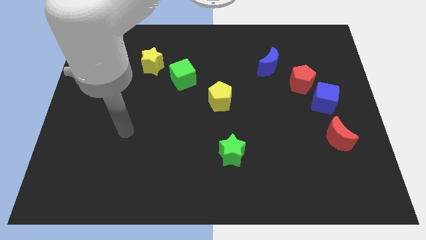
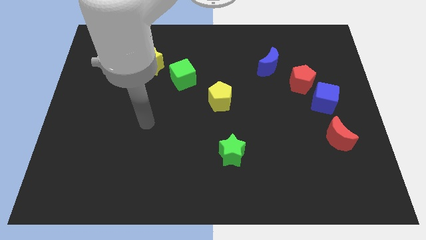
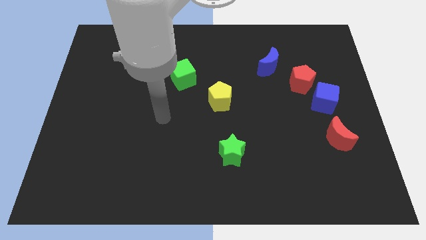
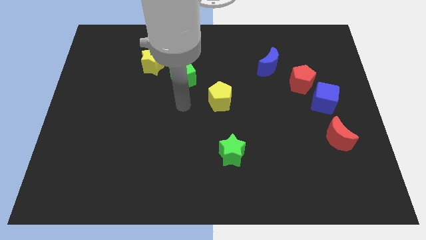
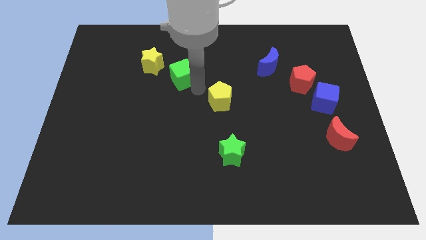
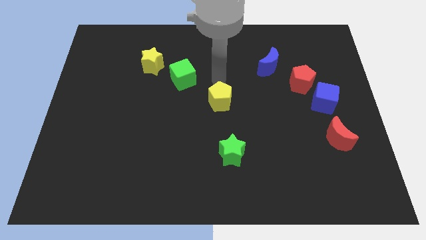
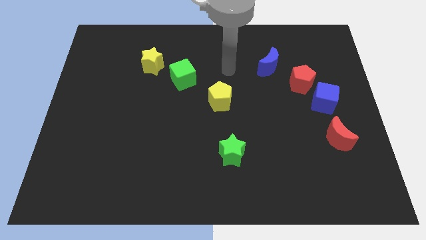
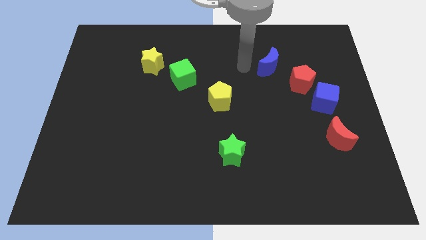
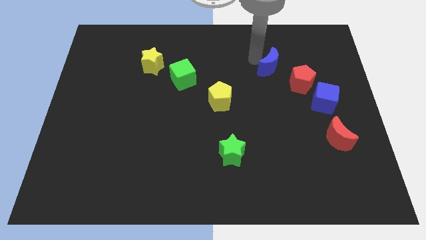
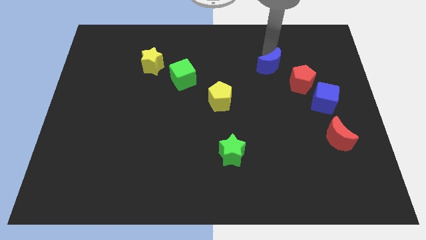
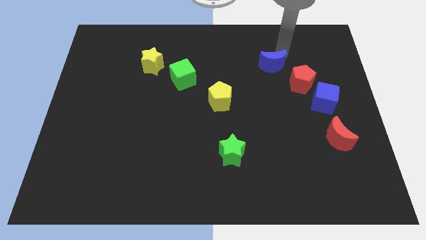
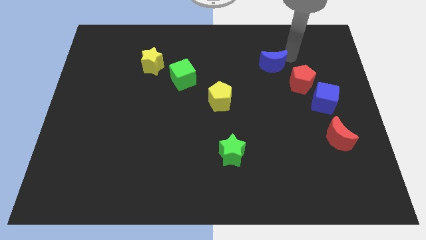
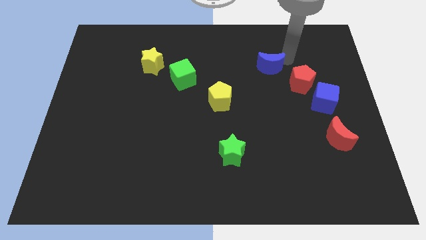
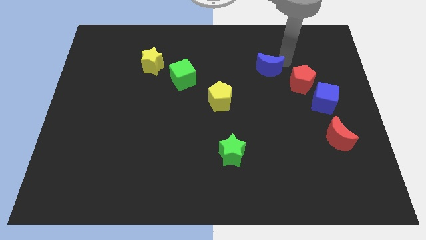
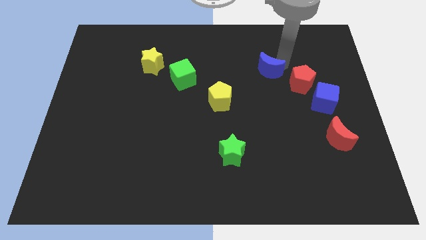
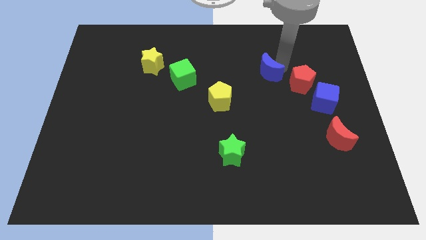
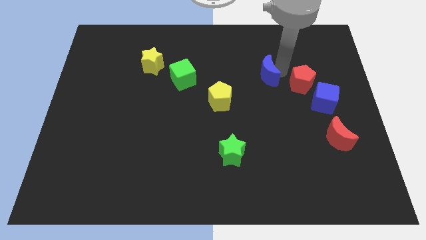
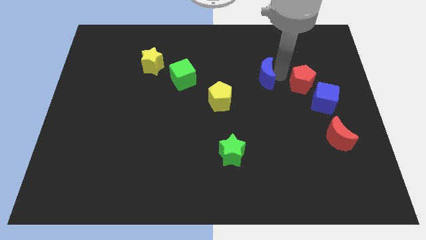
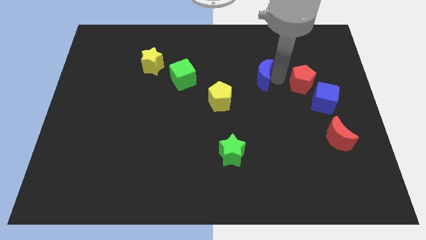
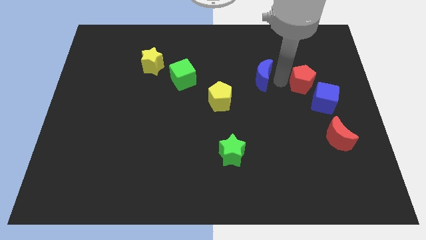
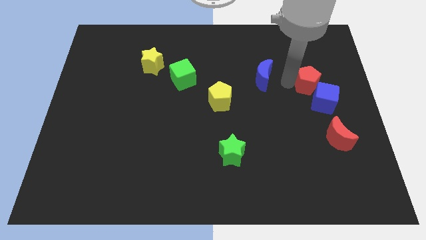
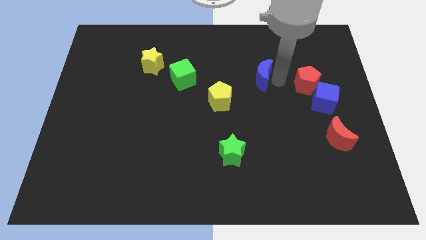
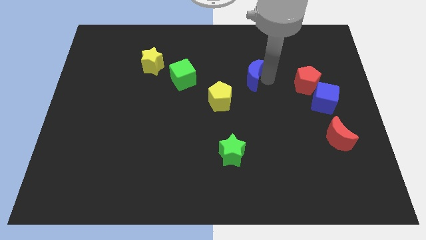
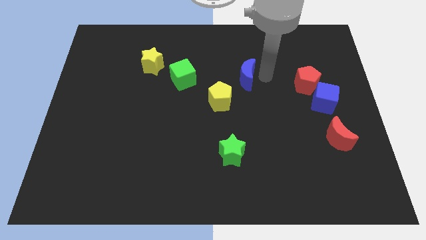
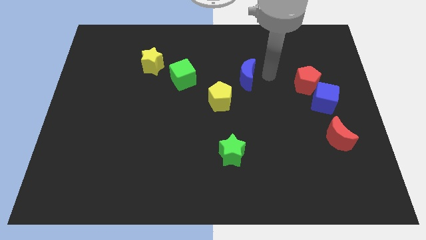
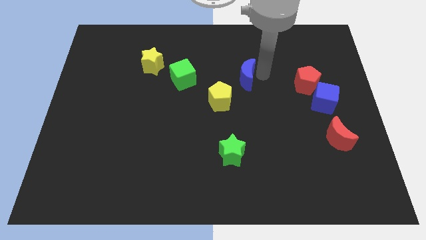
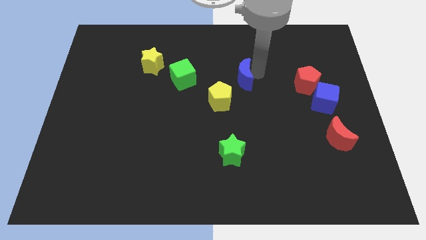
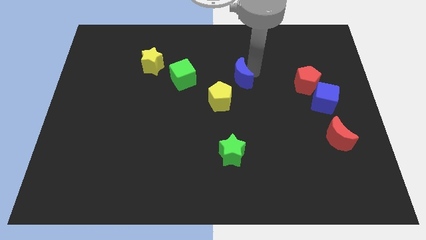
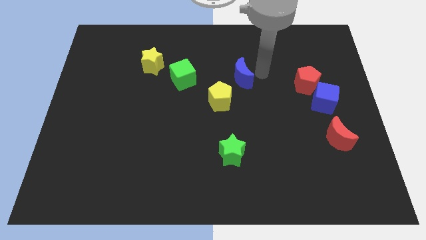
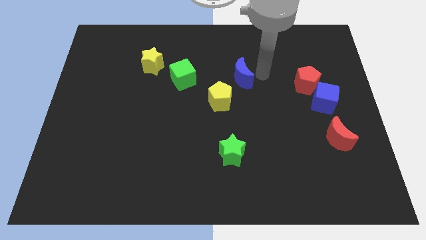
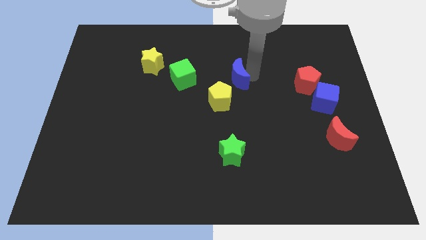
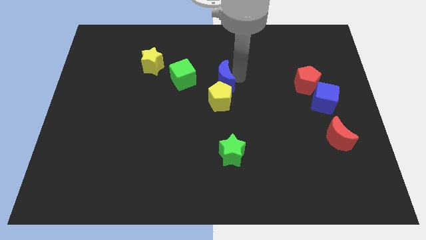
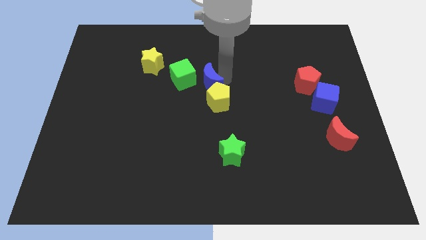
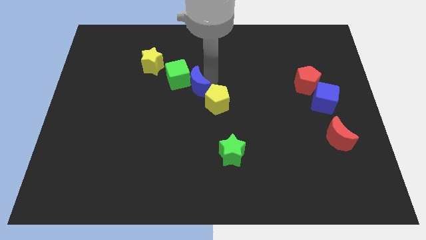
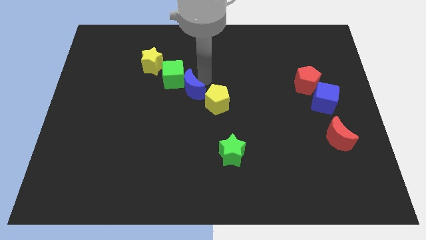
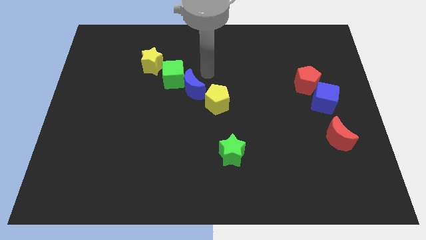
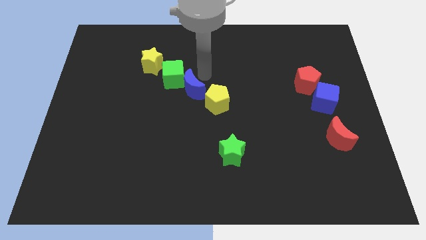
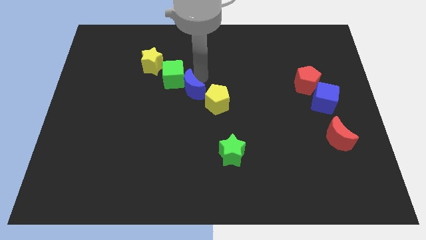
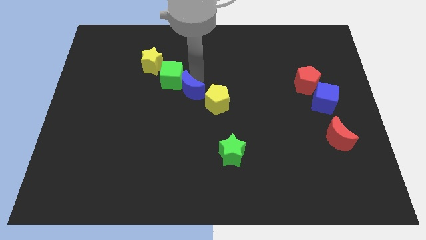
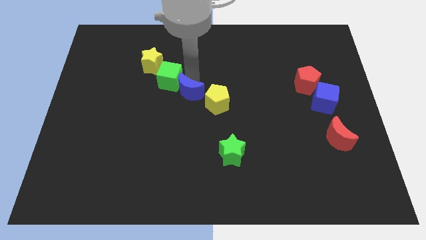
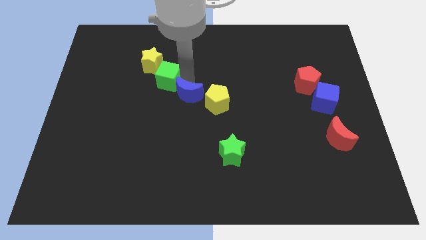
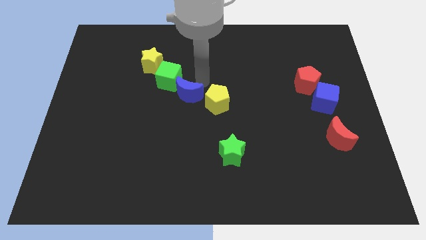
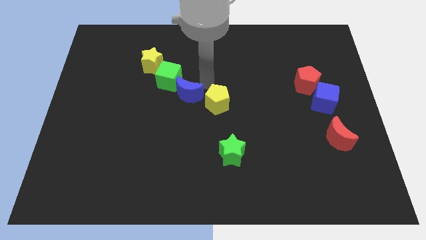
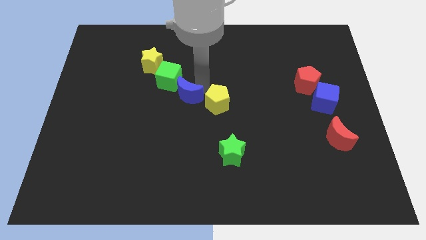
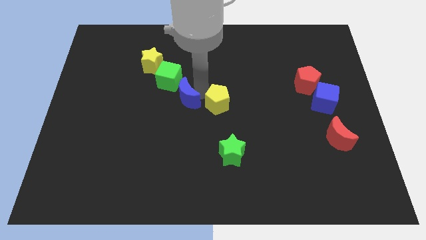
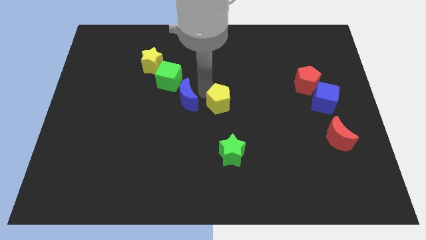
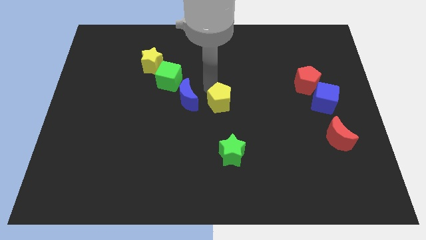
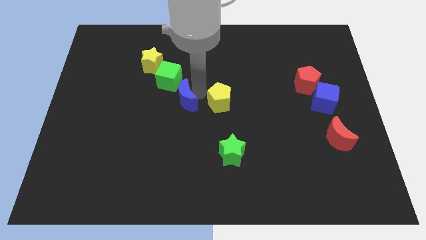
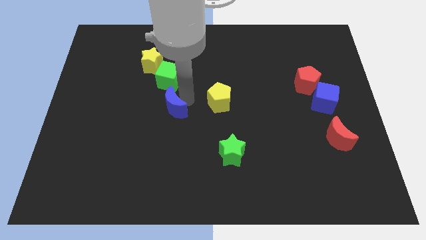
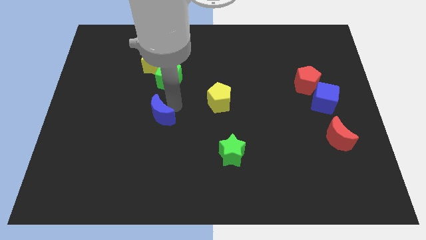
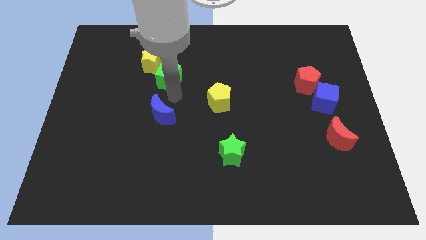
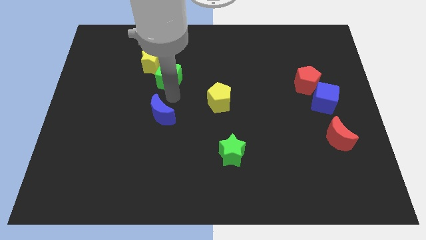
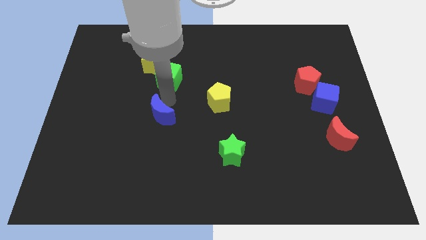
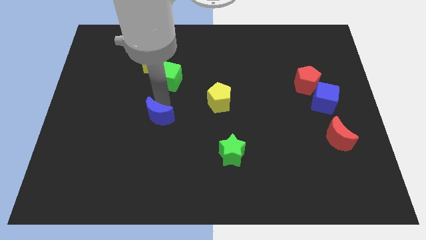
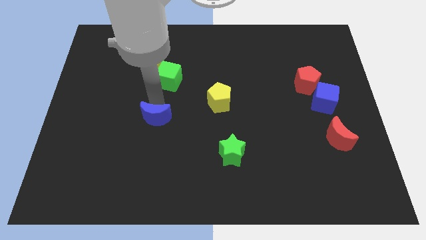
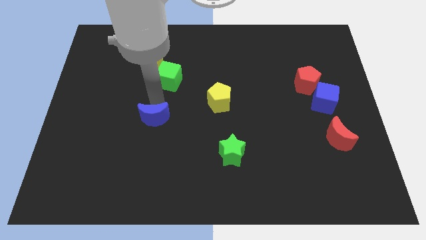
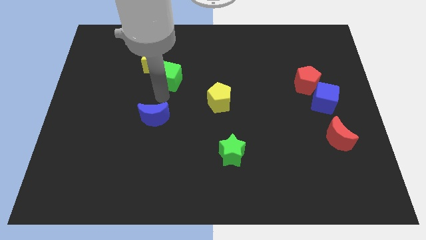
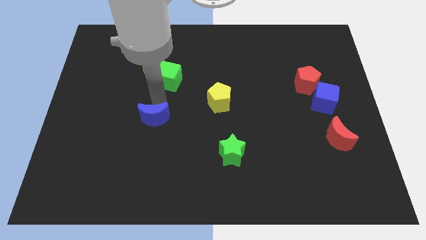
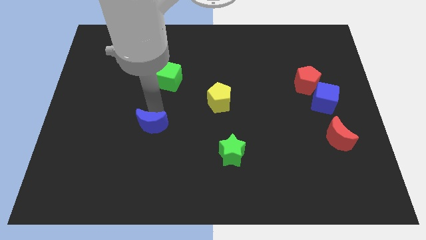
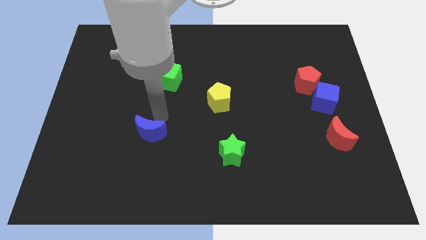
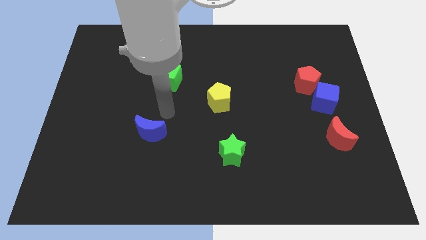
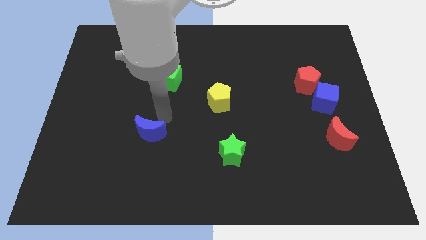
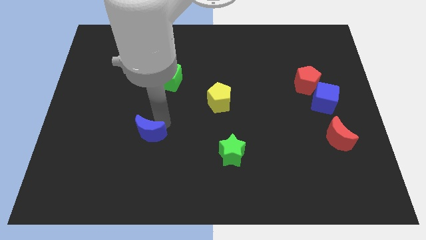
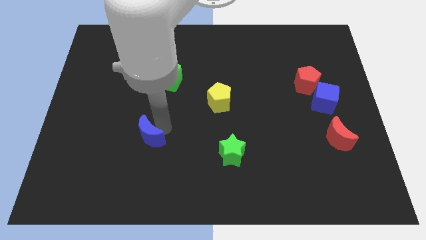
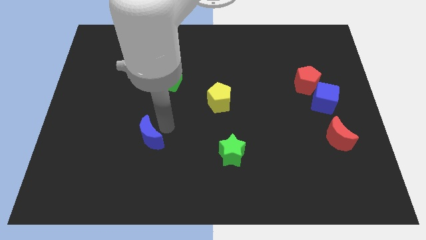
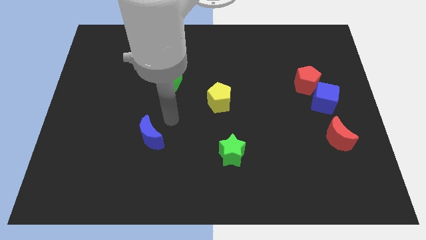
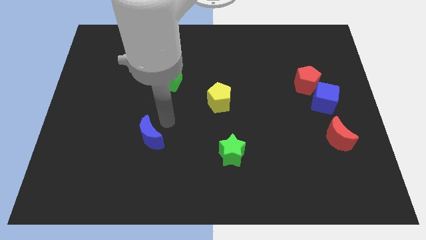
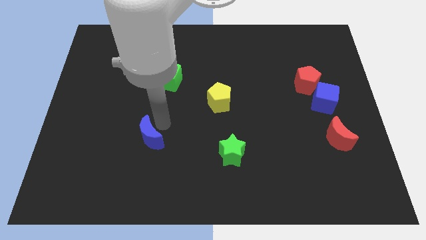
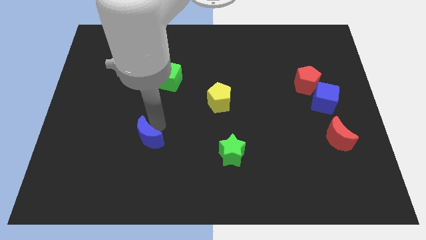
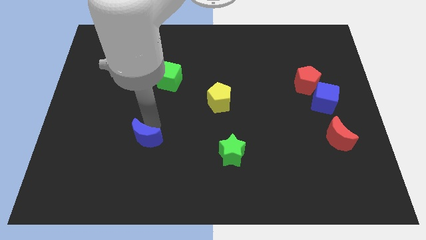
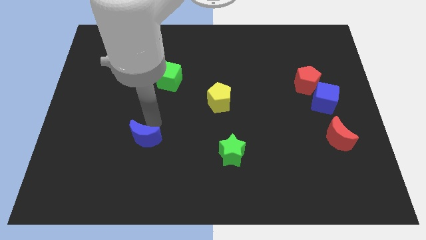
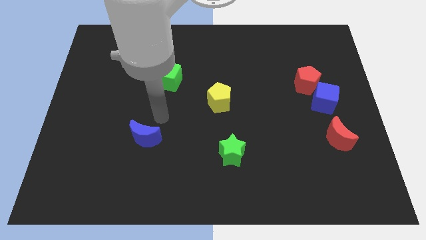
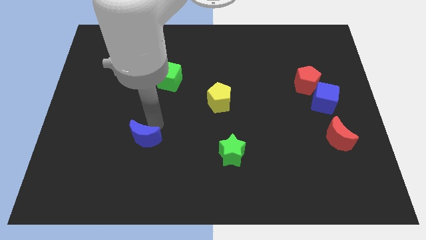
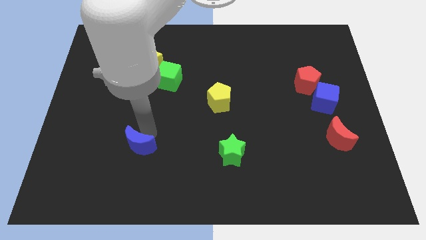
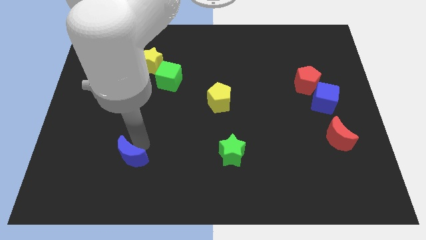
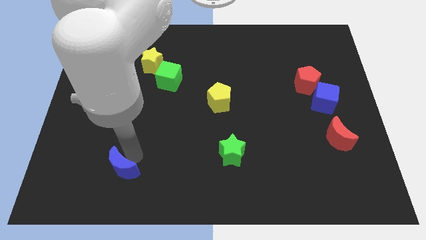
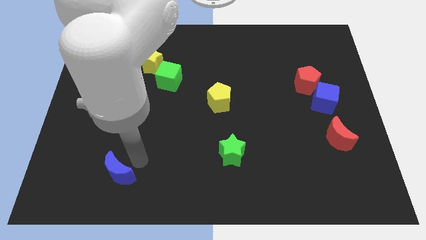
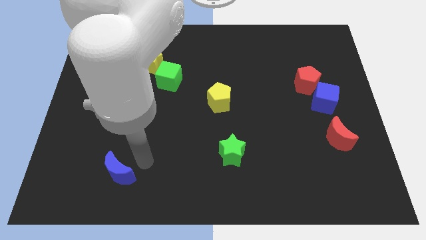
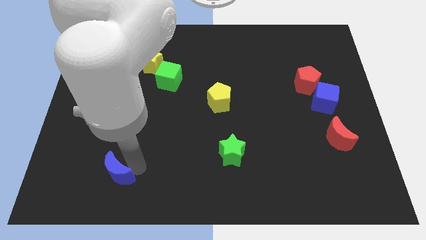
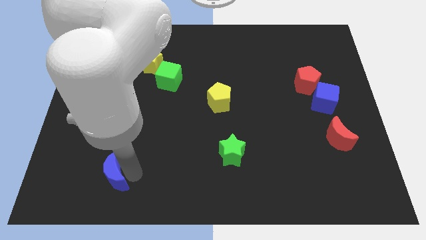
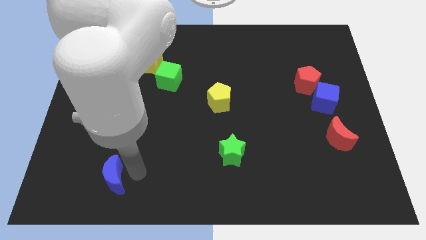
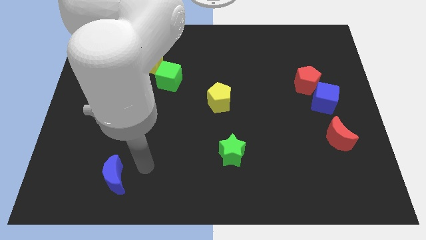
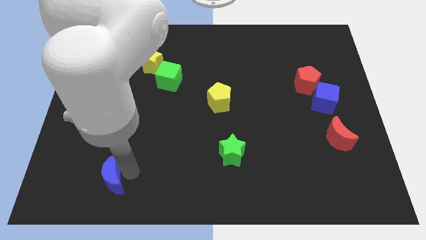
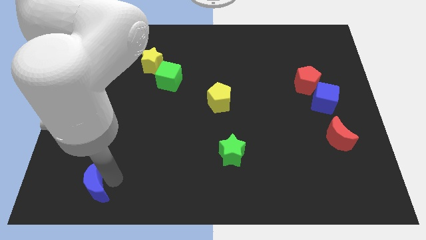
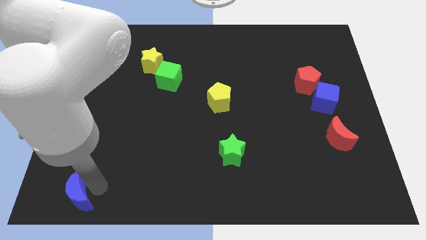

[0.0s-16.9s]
slide the blue moon to the bottom left corner
